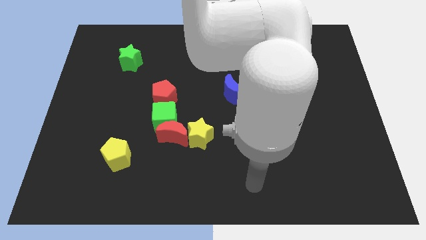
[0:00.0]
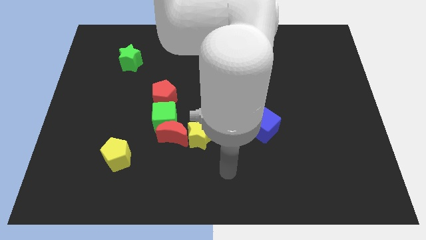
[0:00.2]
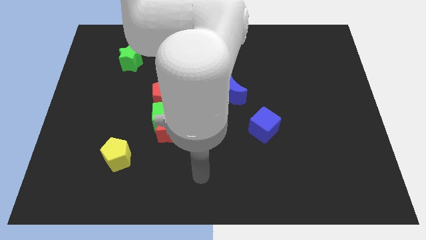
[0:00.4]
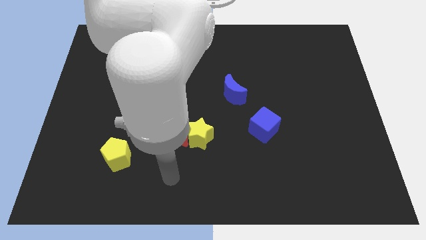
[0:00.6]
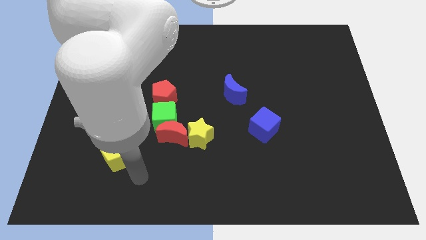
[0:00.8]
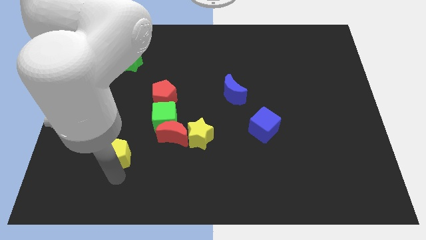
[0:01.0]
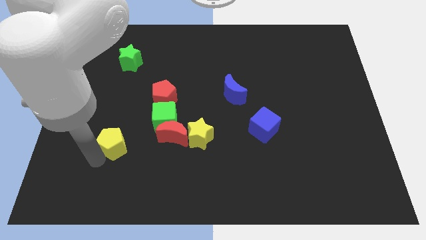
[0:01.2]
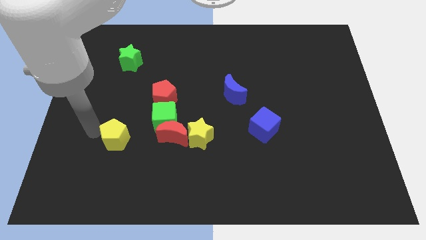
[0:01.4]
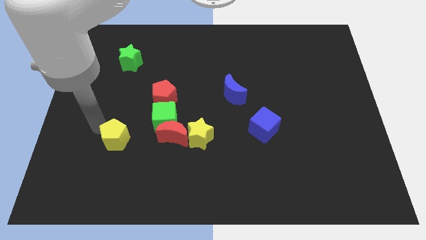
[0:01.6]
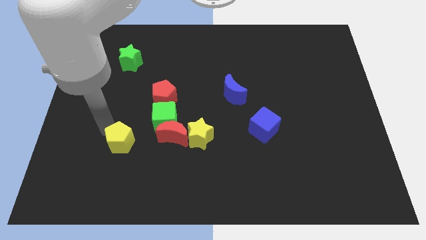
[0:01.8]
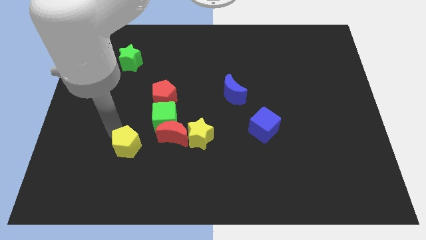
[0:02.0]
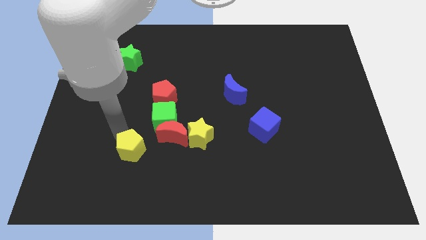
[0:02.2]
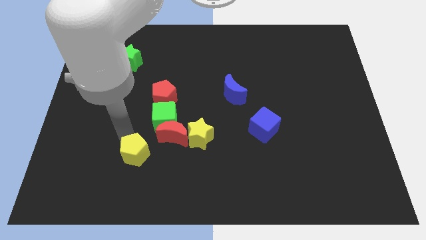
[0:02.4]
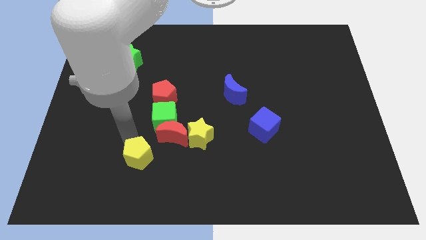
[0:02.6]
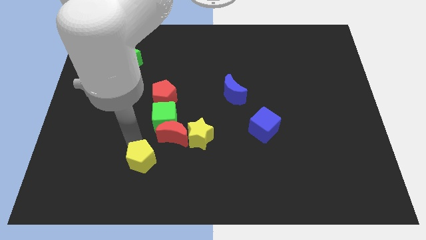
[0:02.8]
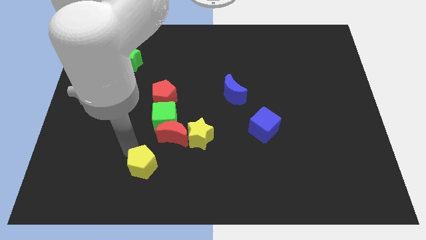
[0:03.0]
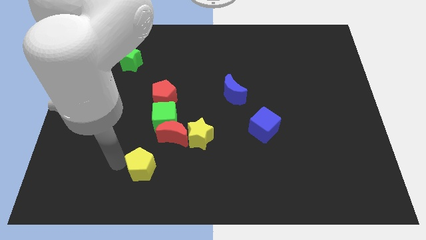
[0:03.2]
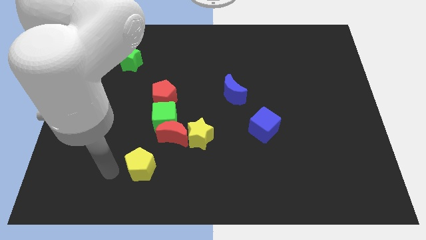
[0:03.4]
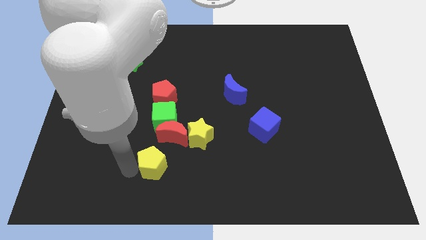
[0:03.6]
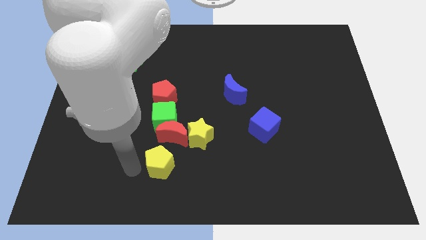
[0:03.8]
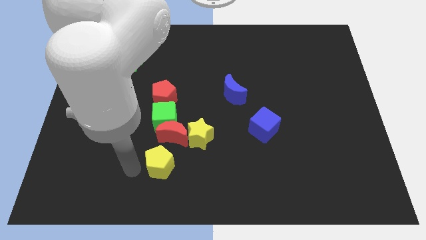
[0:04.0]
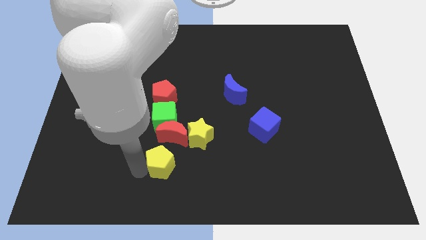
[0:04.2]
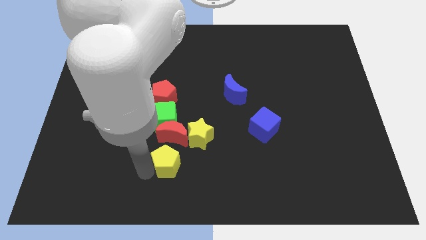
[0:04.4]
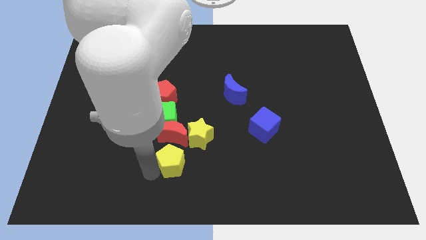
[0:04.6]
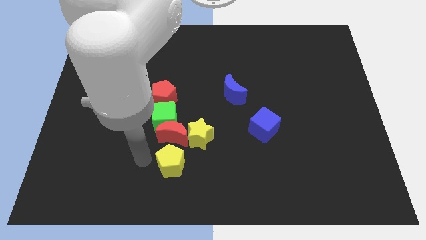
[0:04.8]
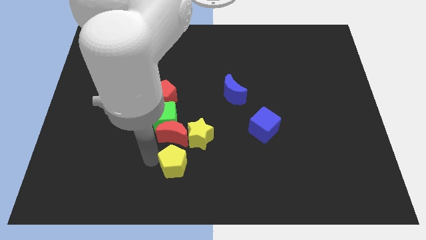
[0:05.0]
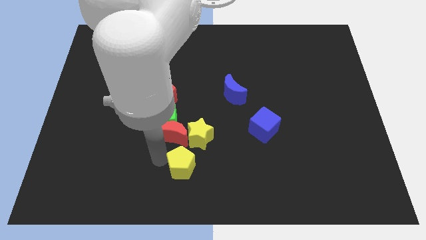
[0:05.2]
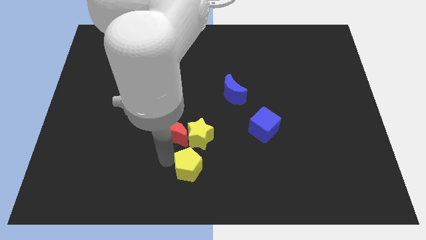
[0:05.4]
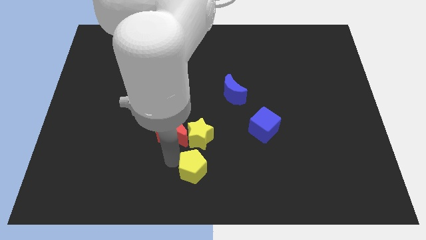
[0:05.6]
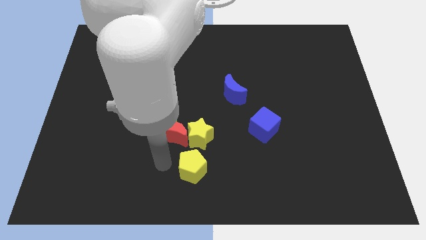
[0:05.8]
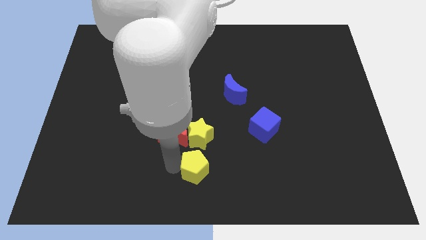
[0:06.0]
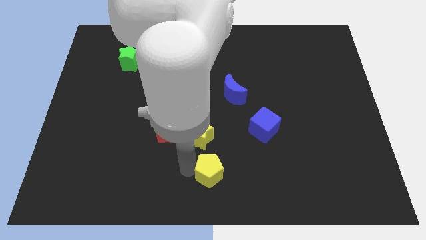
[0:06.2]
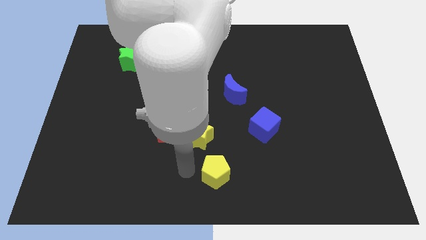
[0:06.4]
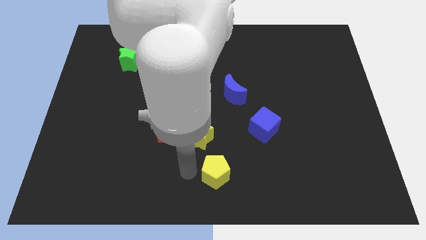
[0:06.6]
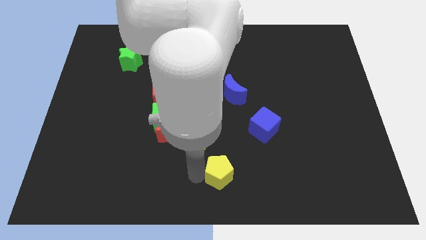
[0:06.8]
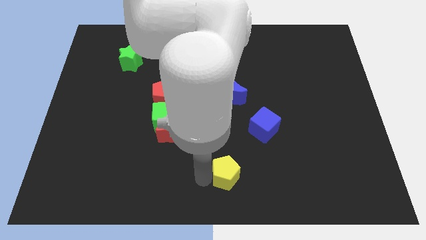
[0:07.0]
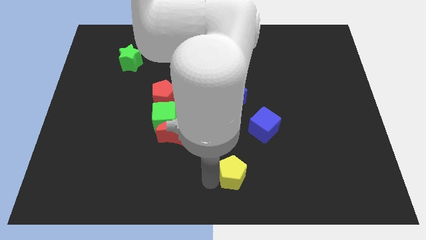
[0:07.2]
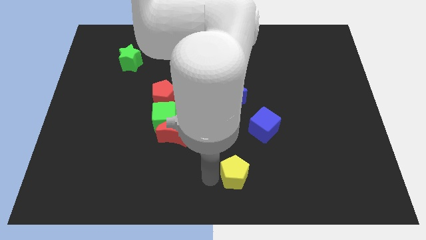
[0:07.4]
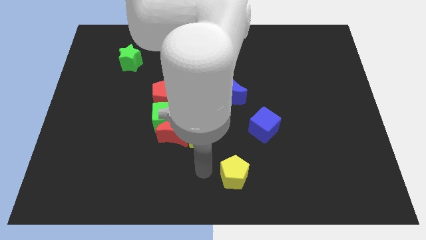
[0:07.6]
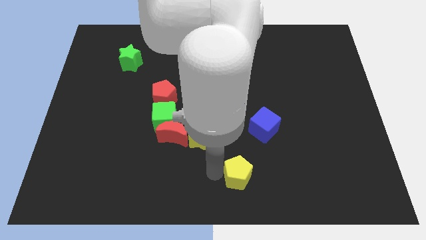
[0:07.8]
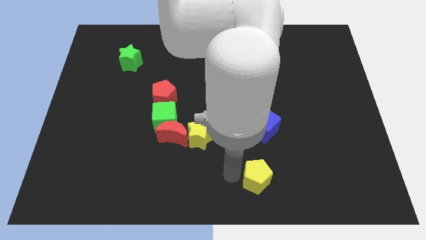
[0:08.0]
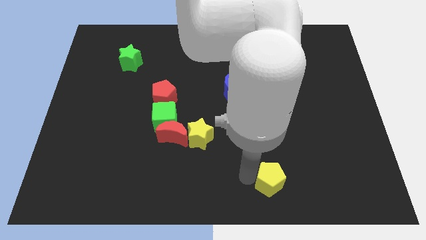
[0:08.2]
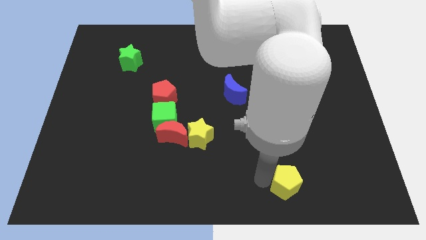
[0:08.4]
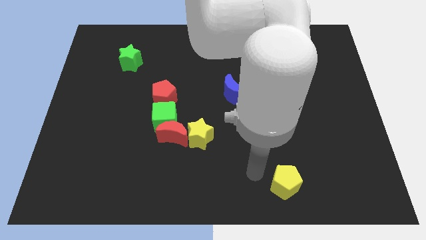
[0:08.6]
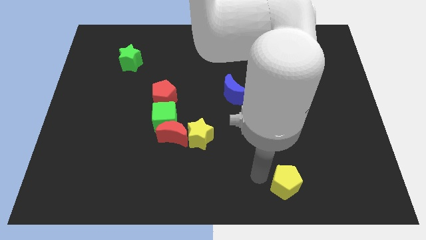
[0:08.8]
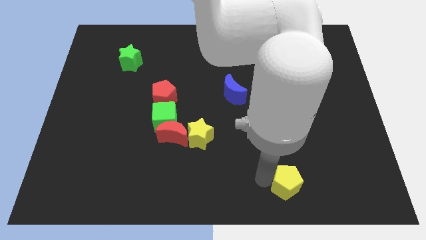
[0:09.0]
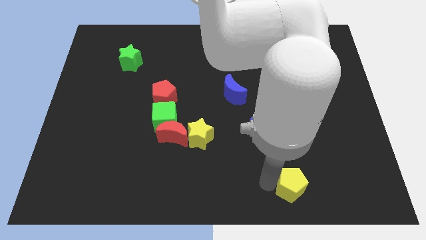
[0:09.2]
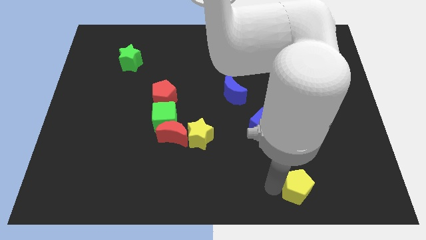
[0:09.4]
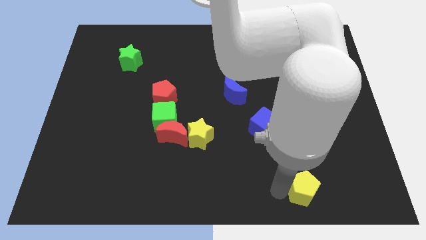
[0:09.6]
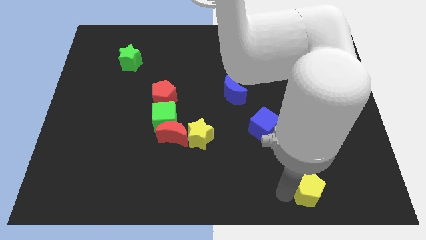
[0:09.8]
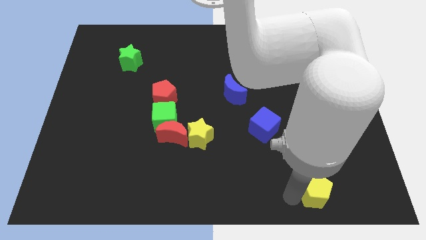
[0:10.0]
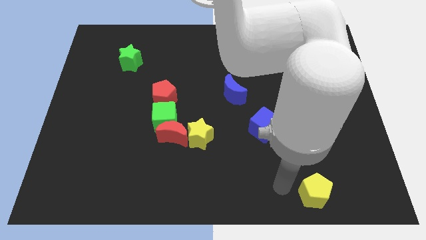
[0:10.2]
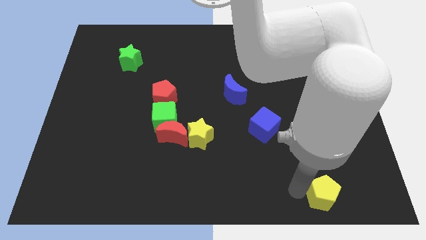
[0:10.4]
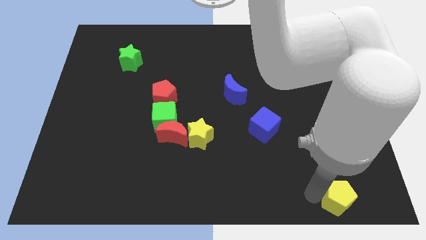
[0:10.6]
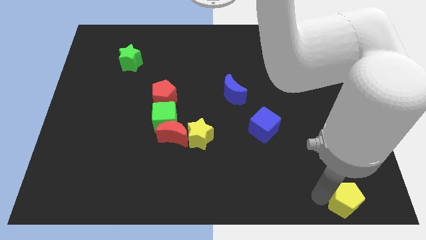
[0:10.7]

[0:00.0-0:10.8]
put the yellow pentagon to the bottom right of the board

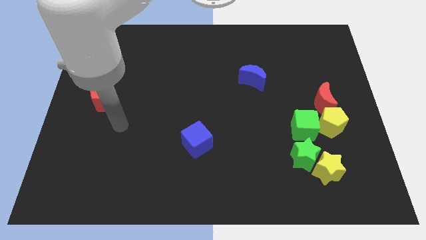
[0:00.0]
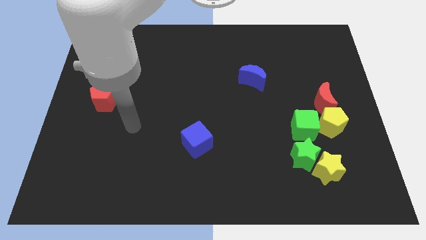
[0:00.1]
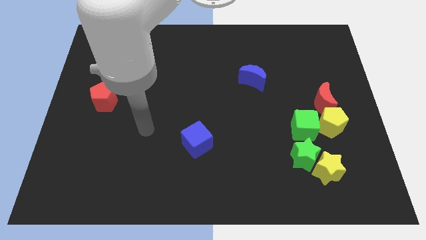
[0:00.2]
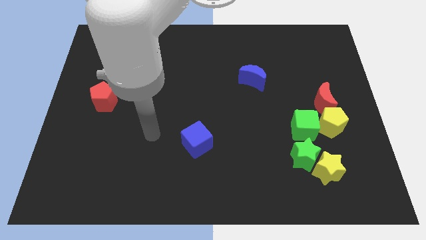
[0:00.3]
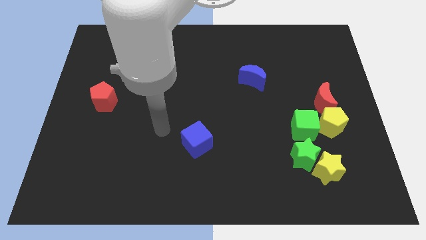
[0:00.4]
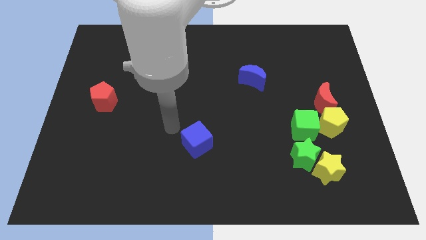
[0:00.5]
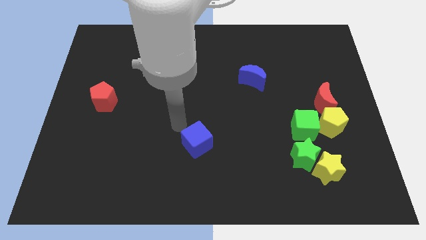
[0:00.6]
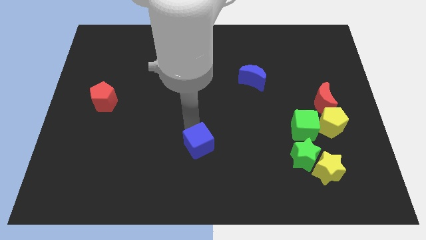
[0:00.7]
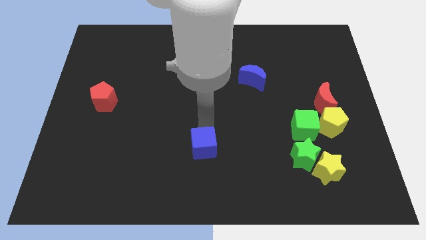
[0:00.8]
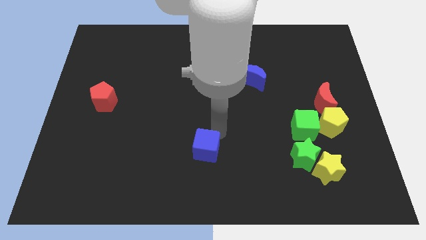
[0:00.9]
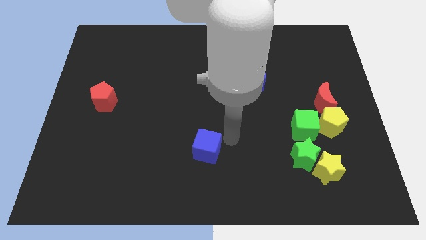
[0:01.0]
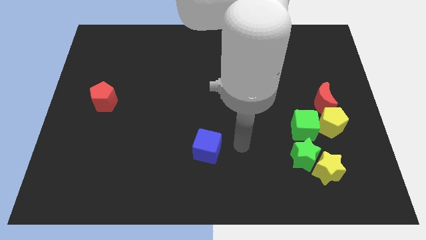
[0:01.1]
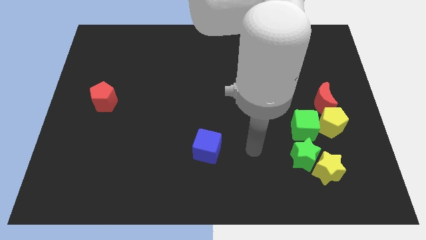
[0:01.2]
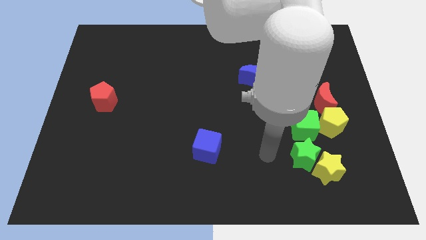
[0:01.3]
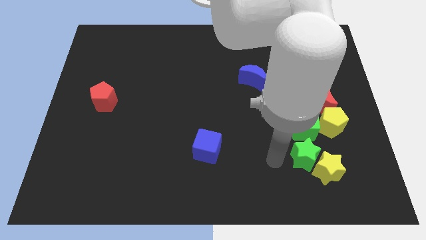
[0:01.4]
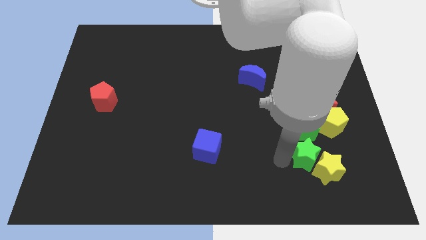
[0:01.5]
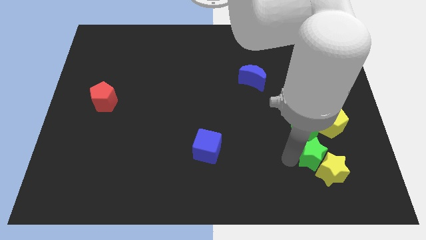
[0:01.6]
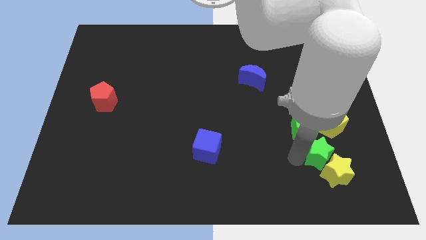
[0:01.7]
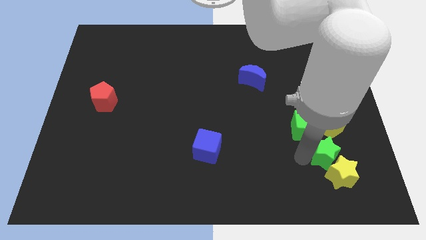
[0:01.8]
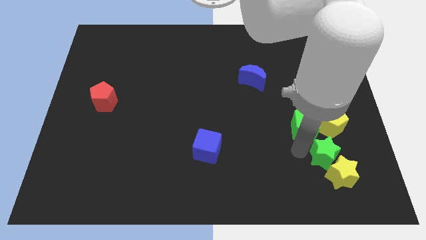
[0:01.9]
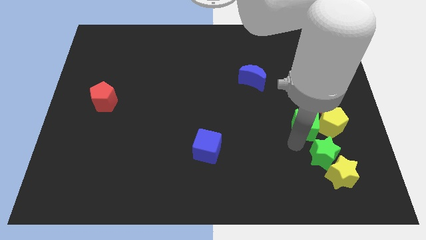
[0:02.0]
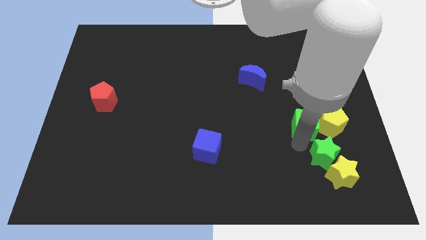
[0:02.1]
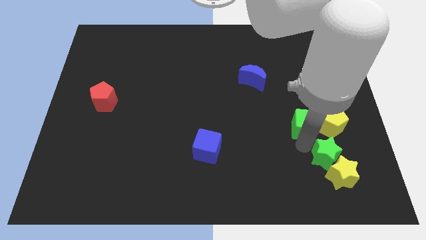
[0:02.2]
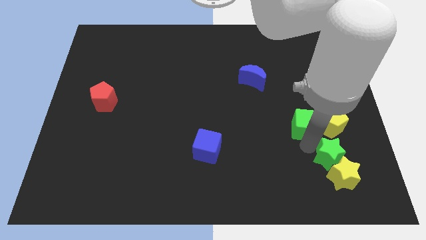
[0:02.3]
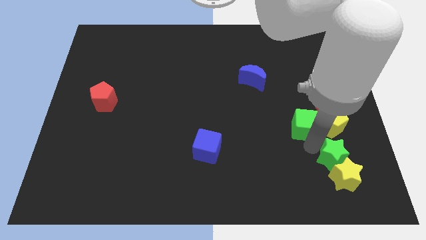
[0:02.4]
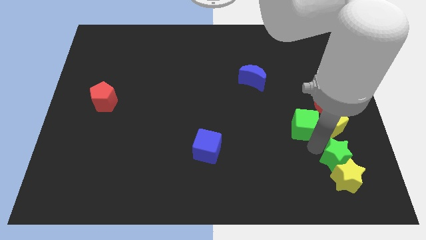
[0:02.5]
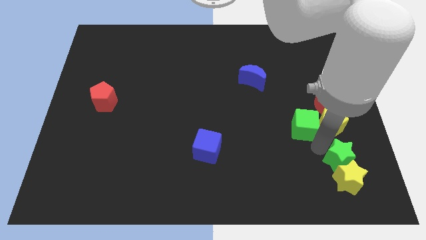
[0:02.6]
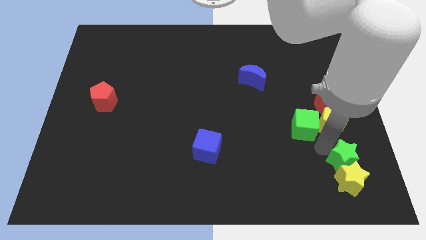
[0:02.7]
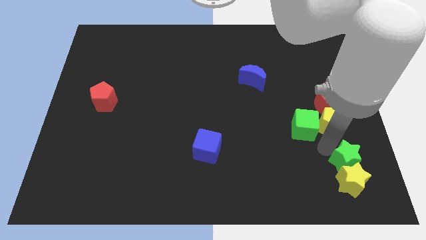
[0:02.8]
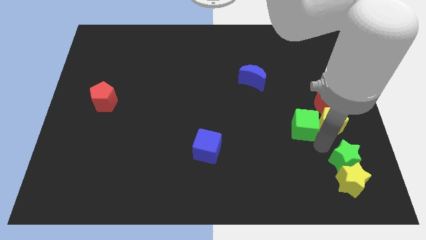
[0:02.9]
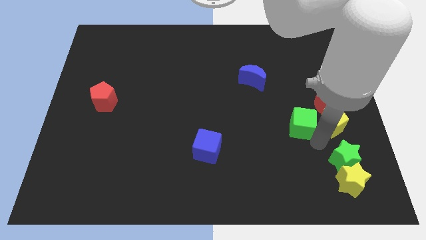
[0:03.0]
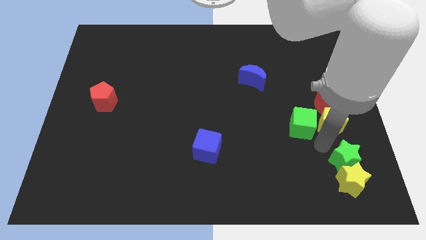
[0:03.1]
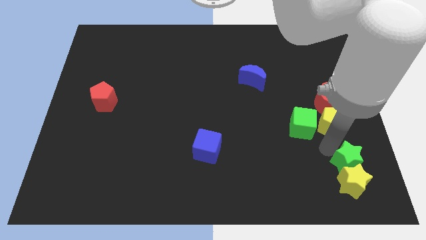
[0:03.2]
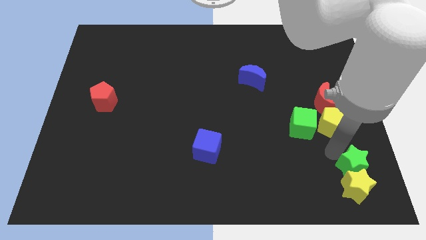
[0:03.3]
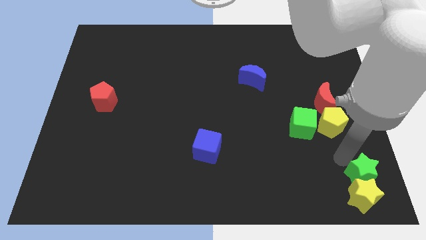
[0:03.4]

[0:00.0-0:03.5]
push the green star to the bottom right of the board
